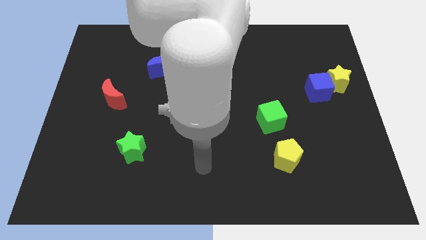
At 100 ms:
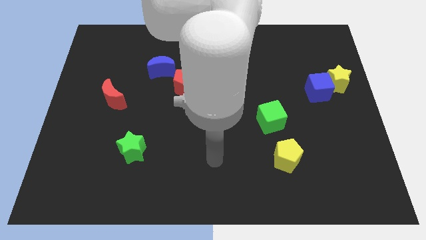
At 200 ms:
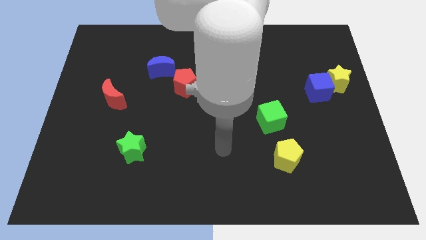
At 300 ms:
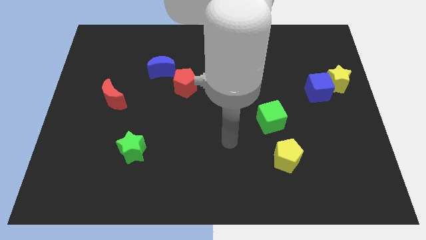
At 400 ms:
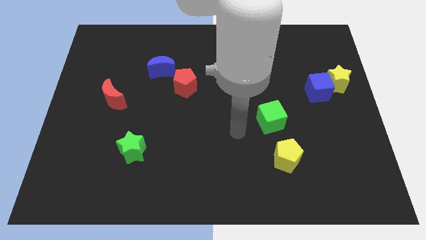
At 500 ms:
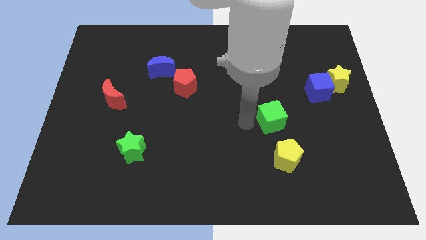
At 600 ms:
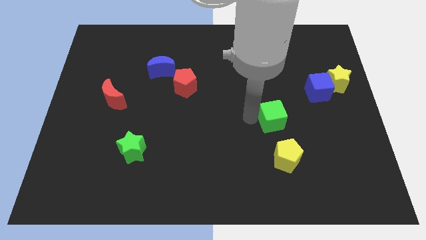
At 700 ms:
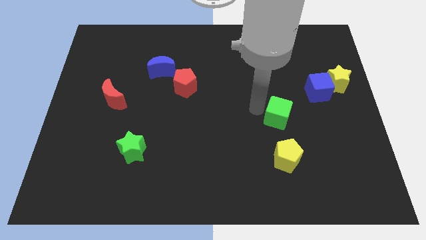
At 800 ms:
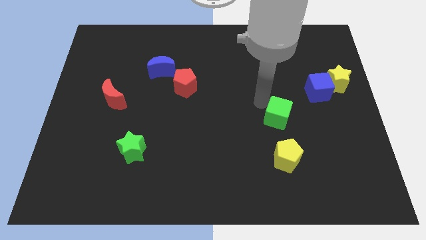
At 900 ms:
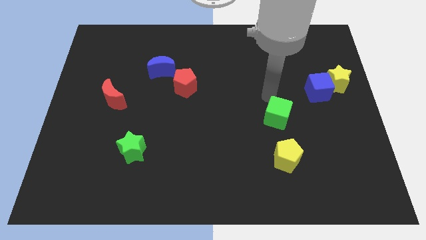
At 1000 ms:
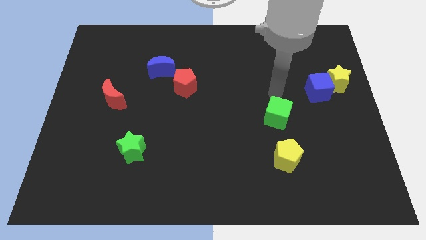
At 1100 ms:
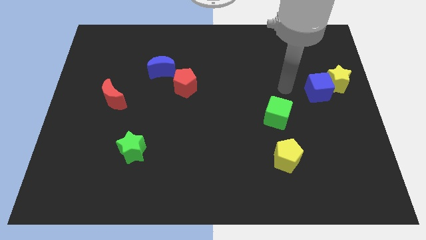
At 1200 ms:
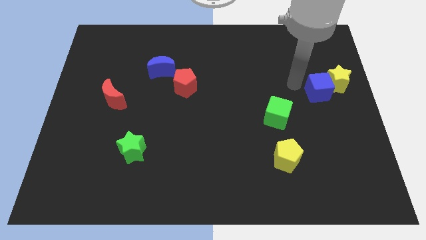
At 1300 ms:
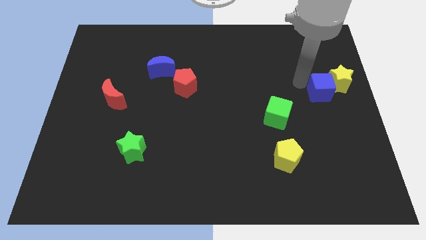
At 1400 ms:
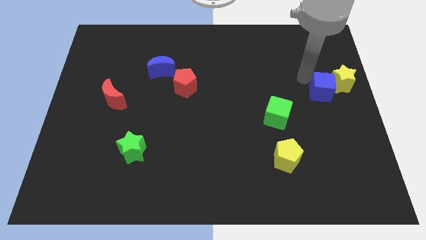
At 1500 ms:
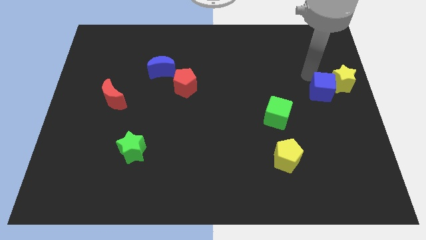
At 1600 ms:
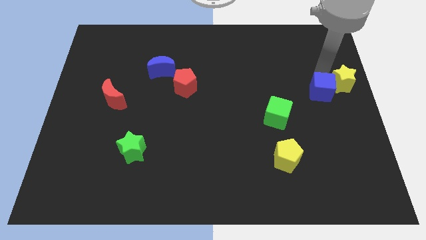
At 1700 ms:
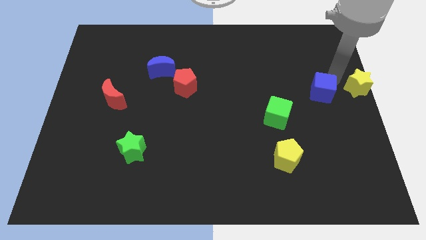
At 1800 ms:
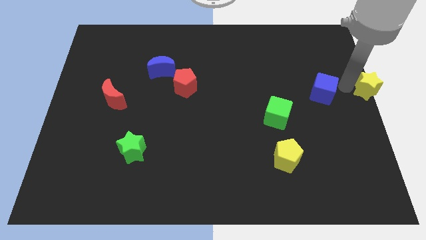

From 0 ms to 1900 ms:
move the blue cube away from the yellow star

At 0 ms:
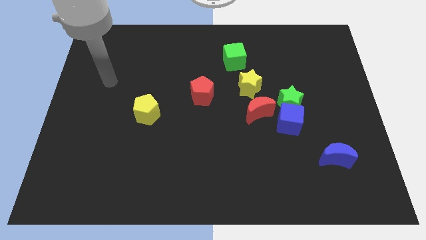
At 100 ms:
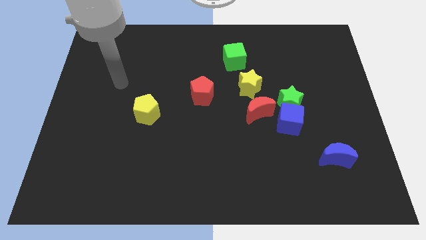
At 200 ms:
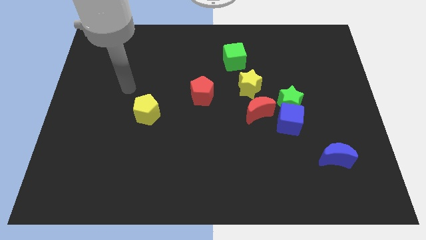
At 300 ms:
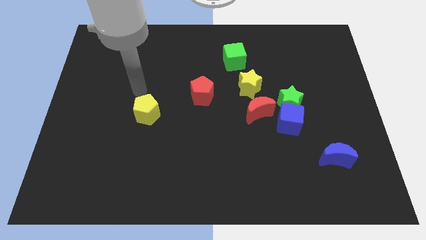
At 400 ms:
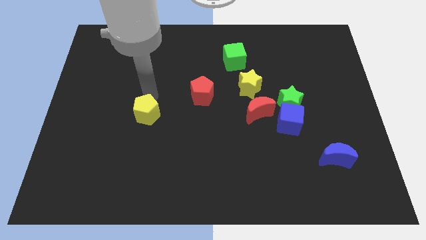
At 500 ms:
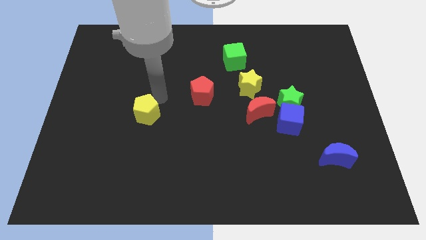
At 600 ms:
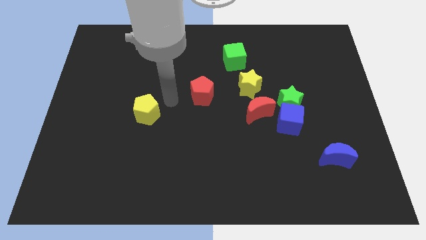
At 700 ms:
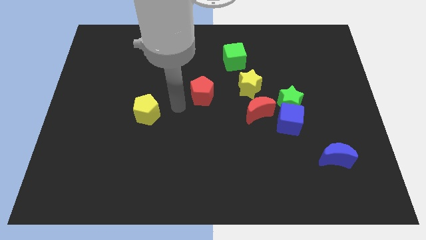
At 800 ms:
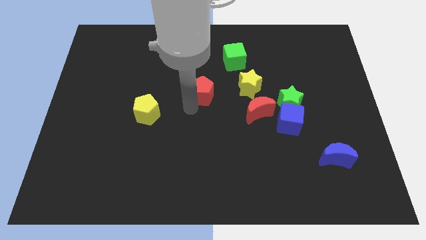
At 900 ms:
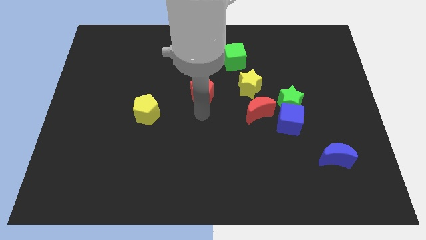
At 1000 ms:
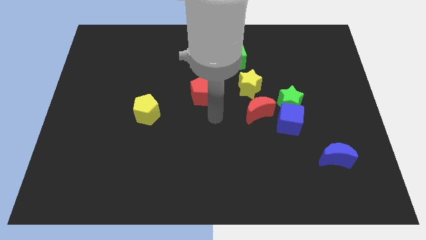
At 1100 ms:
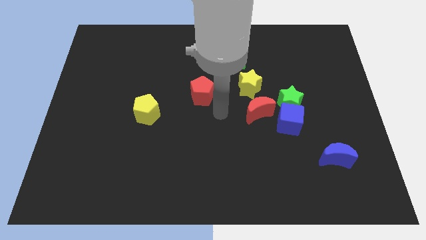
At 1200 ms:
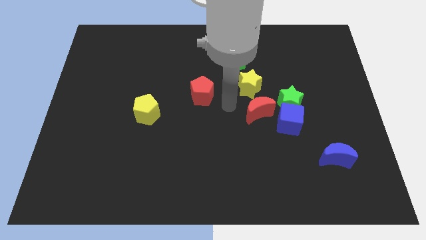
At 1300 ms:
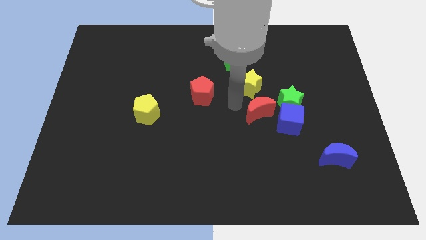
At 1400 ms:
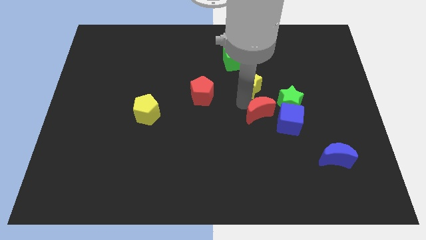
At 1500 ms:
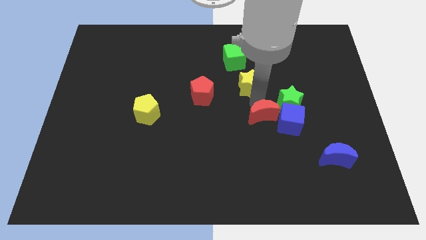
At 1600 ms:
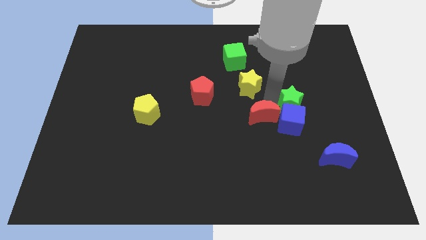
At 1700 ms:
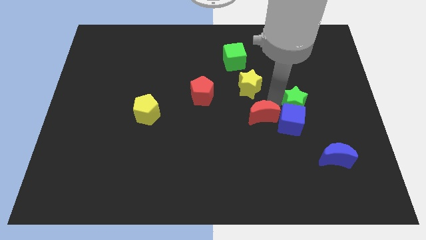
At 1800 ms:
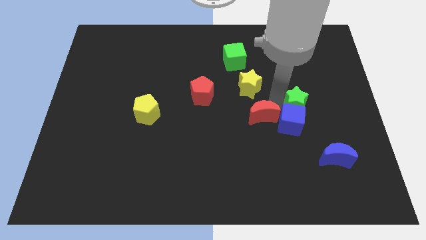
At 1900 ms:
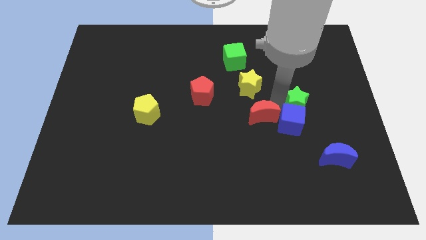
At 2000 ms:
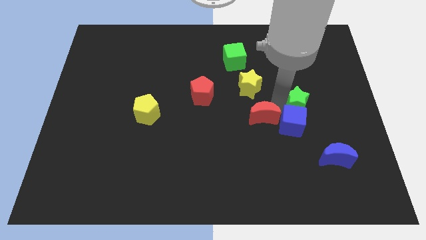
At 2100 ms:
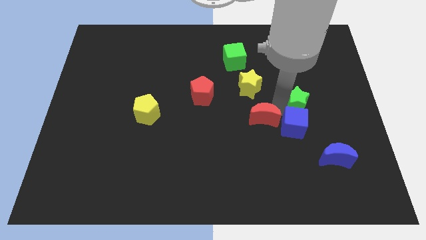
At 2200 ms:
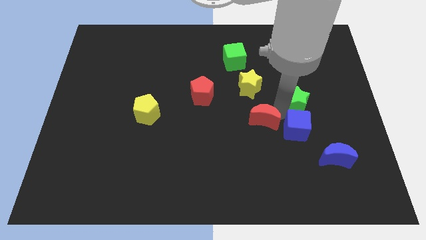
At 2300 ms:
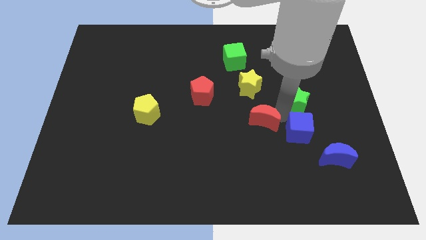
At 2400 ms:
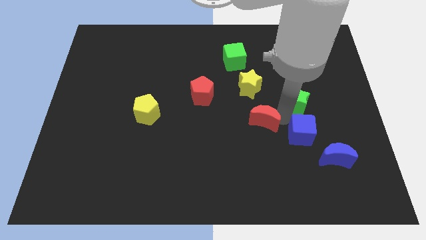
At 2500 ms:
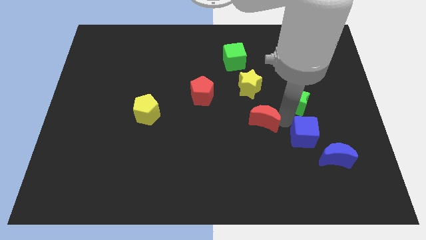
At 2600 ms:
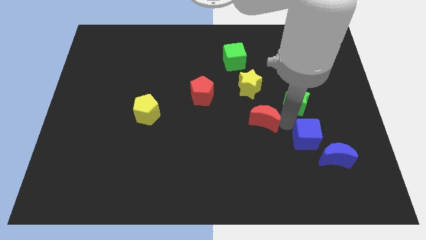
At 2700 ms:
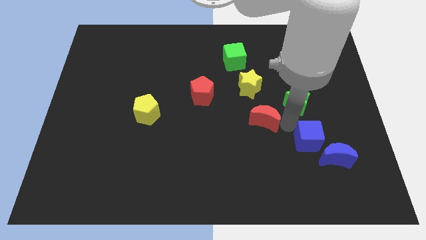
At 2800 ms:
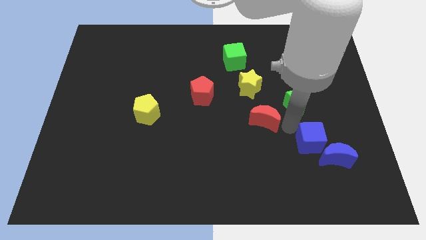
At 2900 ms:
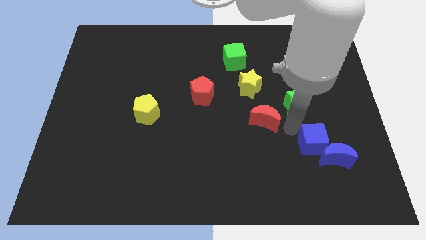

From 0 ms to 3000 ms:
pull the blue cube apart from the green star and red moon

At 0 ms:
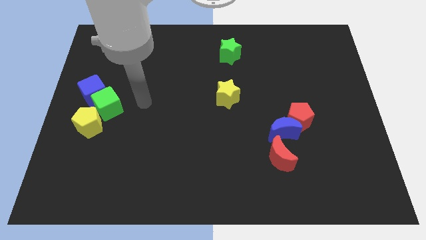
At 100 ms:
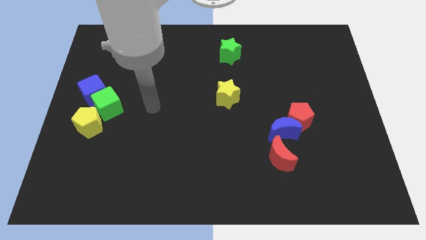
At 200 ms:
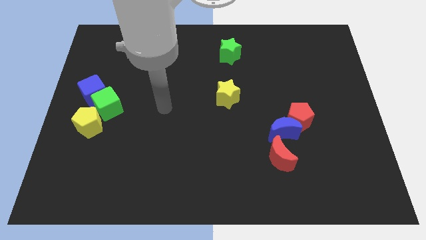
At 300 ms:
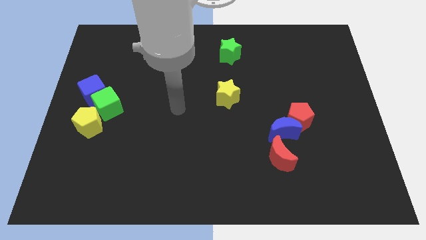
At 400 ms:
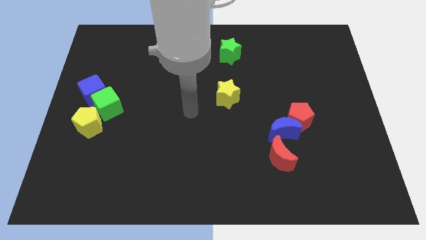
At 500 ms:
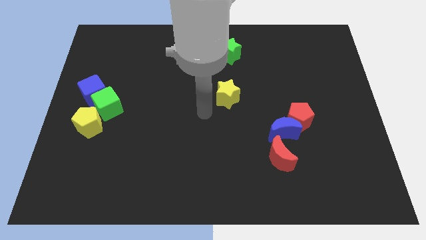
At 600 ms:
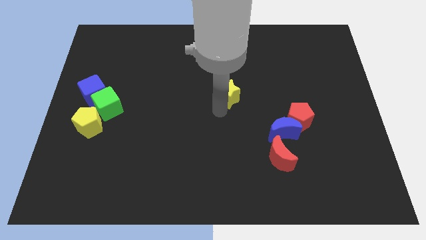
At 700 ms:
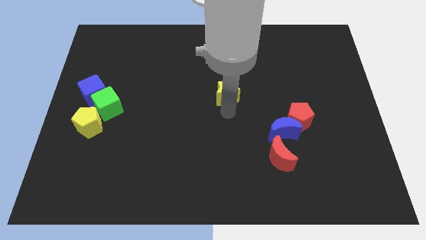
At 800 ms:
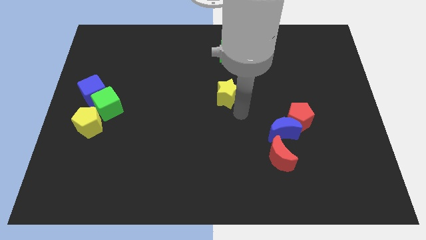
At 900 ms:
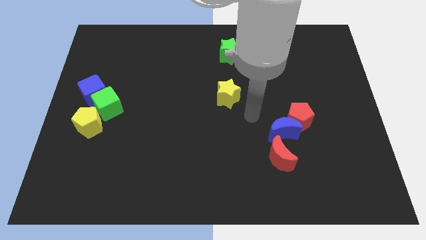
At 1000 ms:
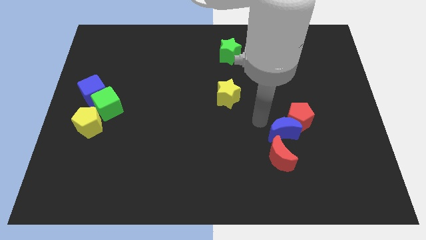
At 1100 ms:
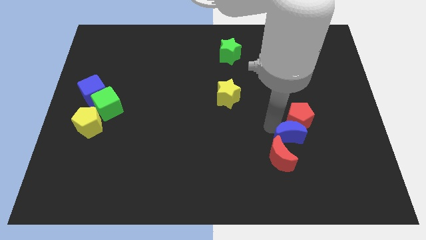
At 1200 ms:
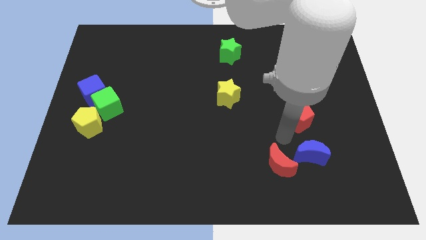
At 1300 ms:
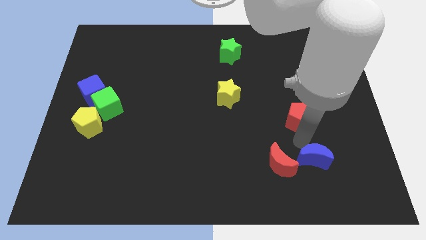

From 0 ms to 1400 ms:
separate the red pentagon from the blue moon

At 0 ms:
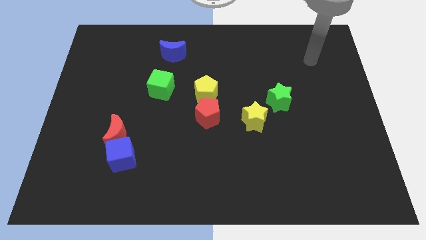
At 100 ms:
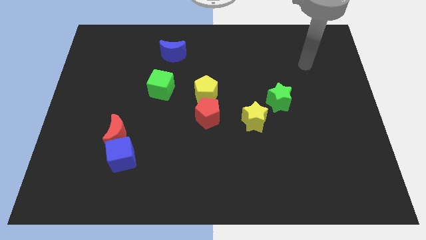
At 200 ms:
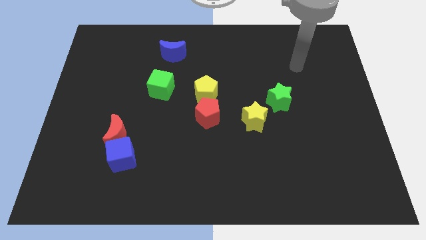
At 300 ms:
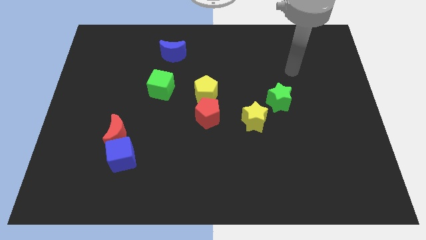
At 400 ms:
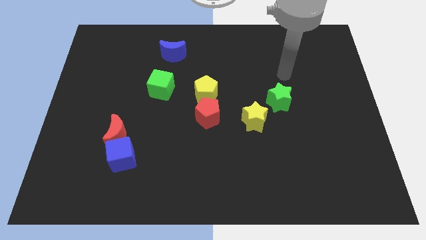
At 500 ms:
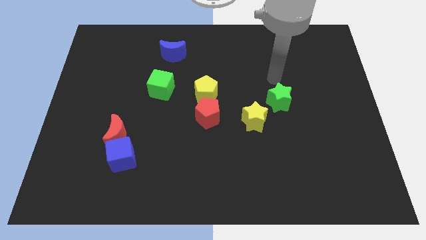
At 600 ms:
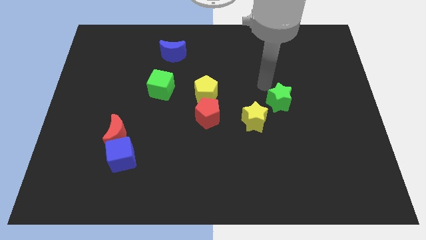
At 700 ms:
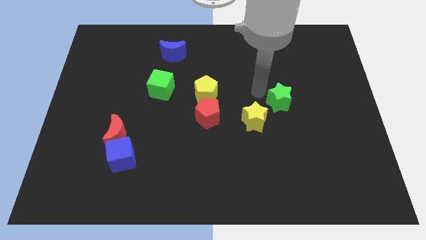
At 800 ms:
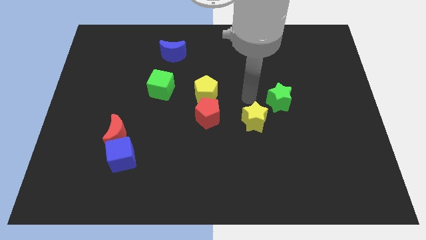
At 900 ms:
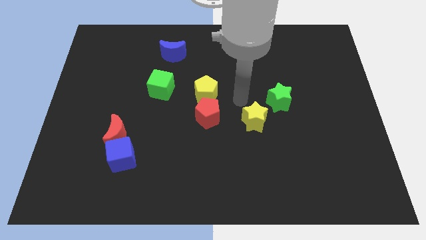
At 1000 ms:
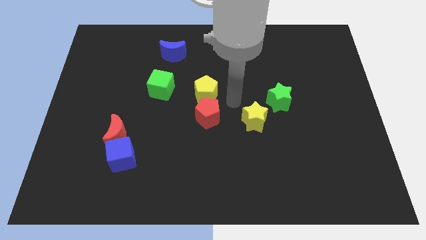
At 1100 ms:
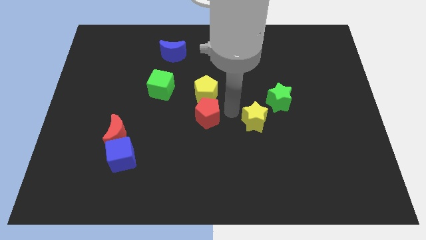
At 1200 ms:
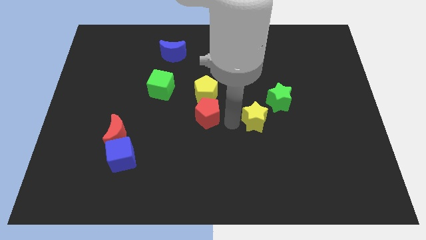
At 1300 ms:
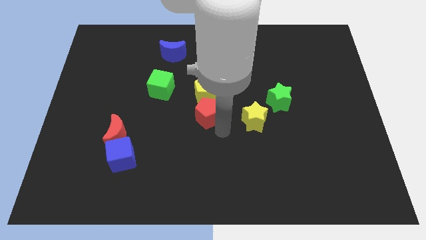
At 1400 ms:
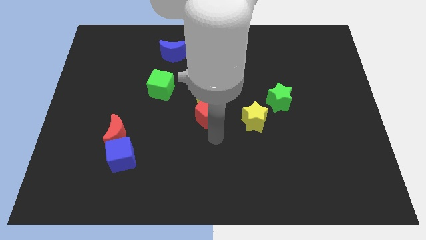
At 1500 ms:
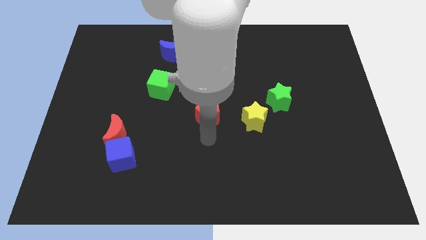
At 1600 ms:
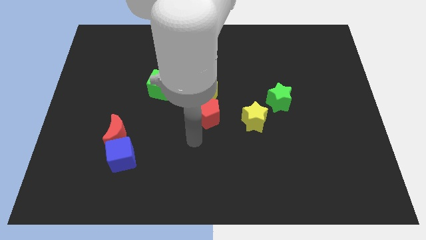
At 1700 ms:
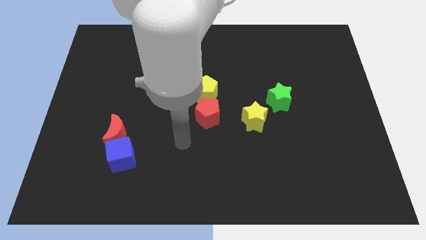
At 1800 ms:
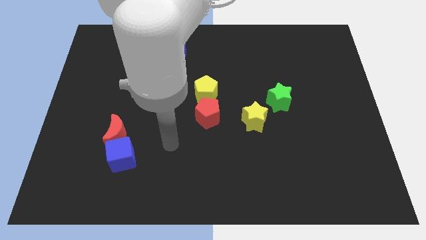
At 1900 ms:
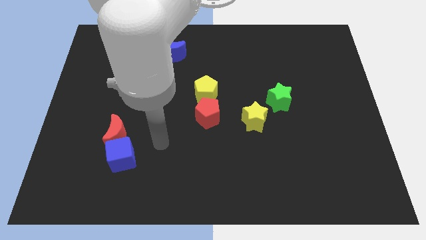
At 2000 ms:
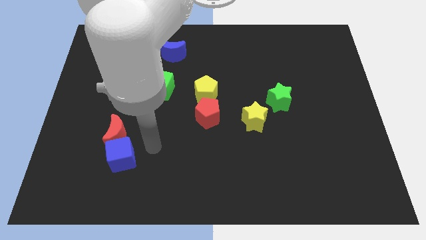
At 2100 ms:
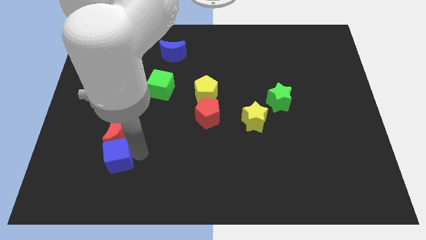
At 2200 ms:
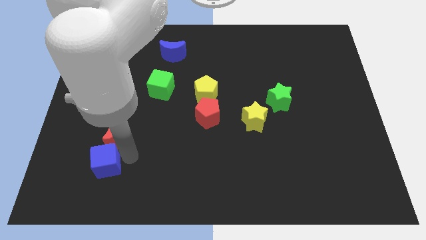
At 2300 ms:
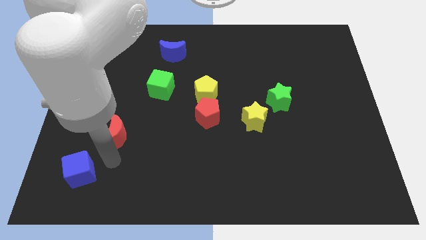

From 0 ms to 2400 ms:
move the red moon away from the blue cube

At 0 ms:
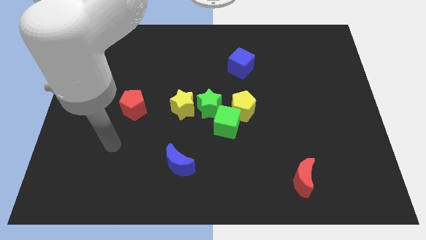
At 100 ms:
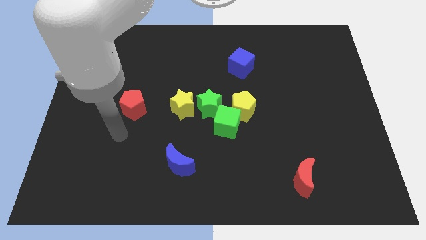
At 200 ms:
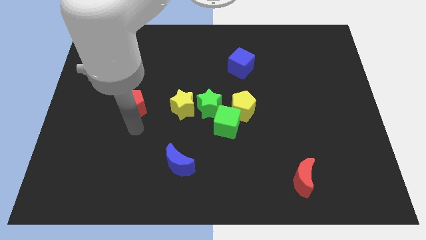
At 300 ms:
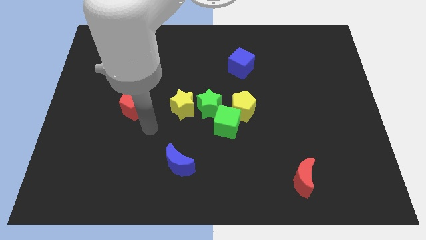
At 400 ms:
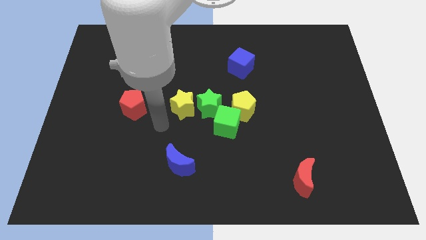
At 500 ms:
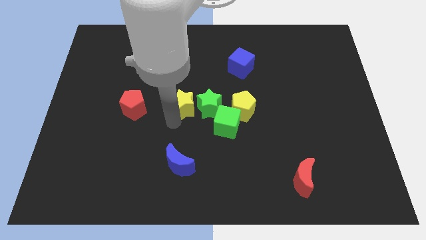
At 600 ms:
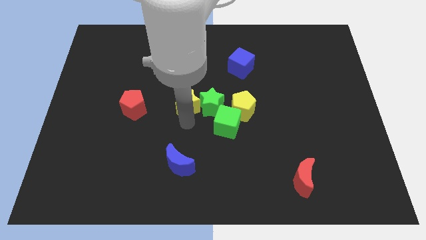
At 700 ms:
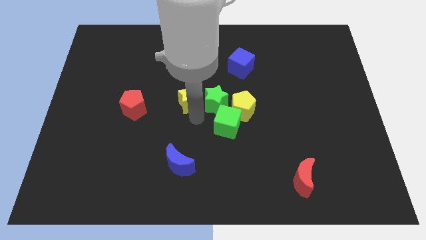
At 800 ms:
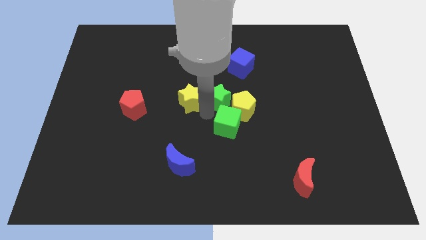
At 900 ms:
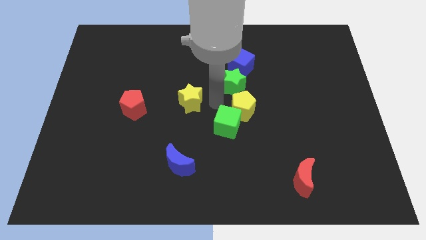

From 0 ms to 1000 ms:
move the yellow star away from the green star
